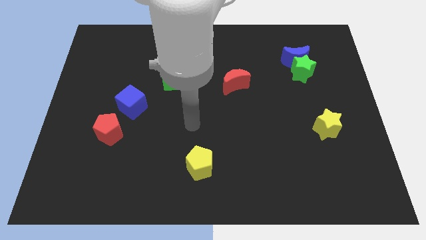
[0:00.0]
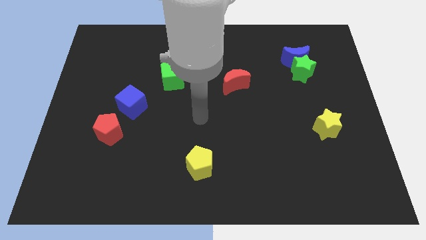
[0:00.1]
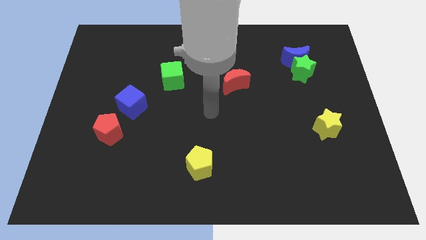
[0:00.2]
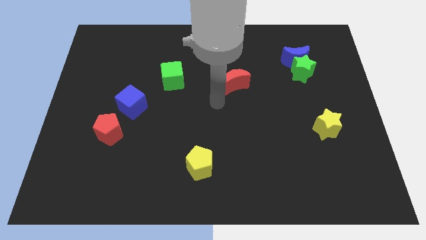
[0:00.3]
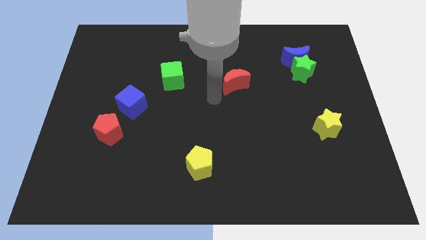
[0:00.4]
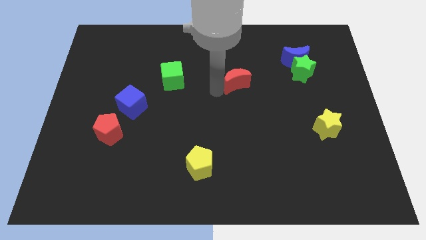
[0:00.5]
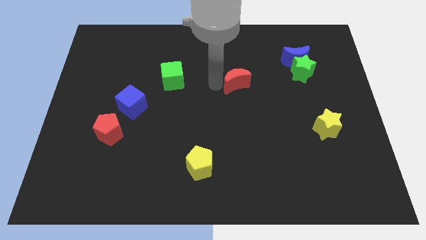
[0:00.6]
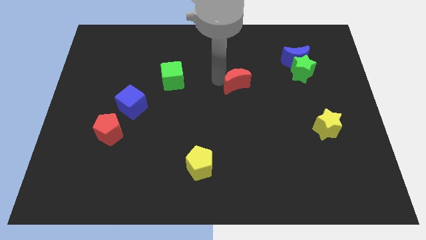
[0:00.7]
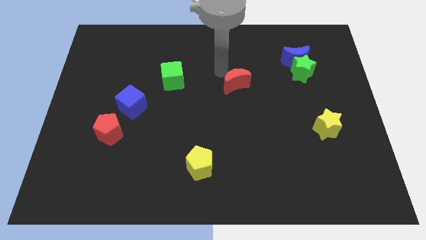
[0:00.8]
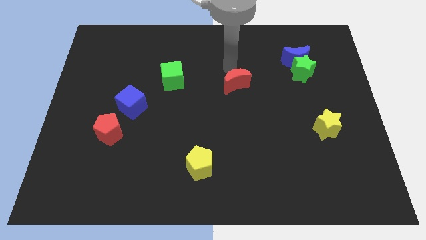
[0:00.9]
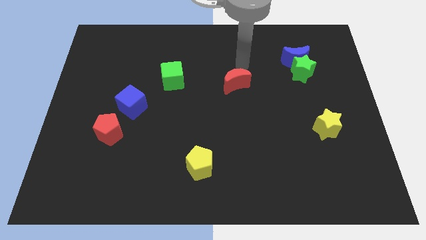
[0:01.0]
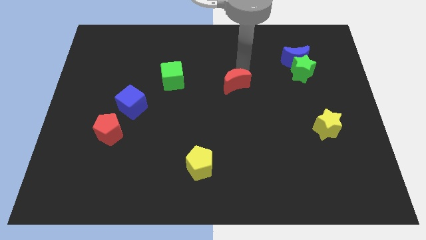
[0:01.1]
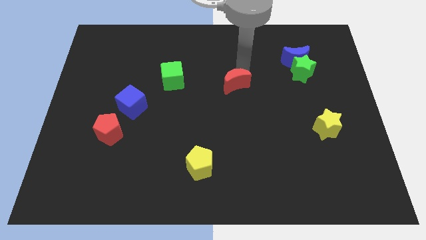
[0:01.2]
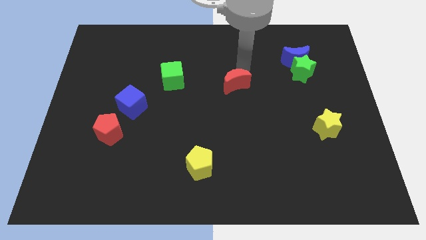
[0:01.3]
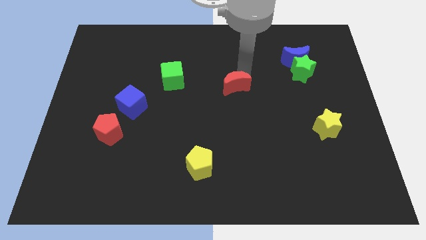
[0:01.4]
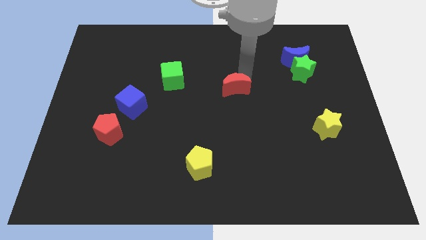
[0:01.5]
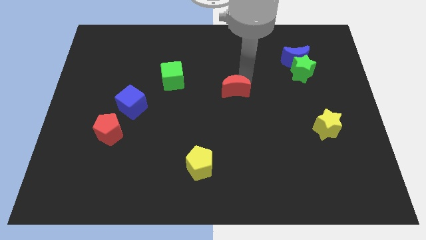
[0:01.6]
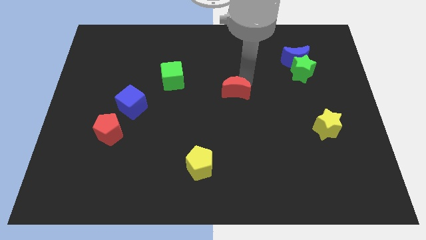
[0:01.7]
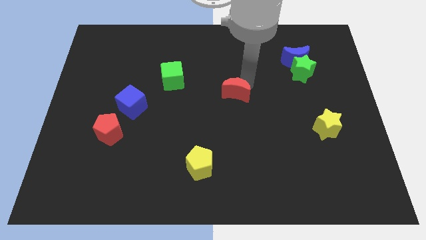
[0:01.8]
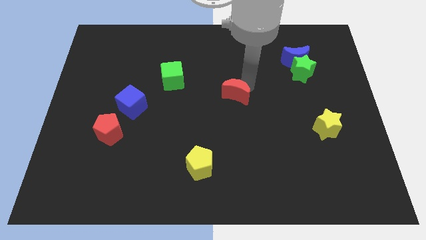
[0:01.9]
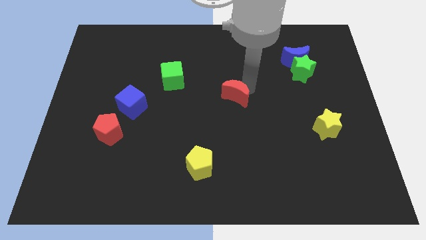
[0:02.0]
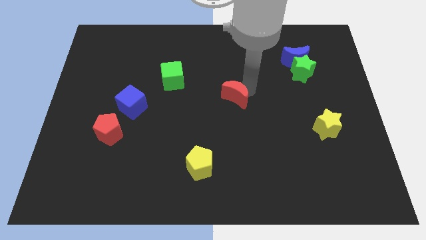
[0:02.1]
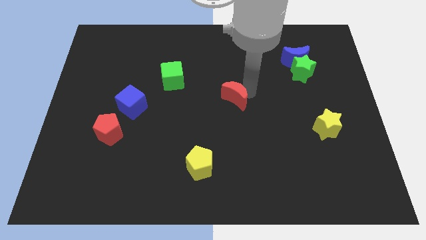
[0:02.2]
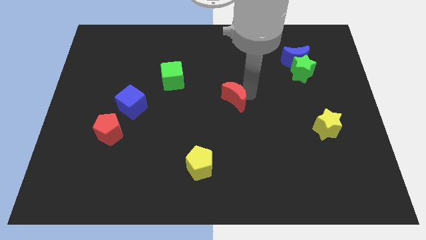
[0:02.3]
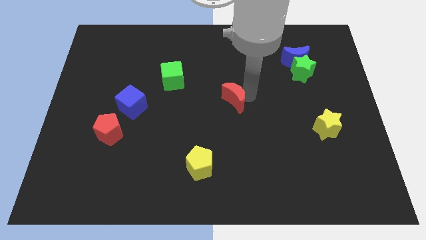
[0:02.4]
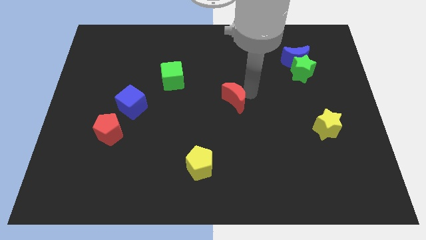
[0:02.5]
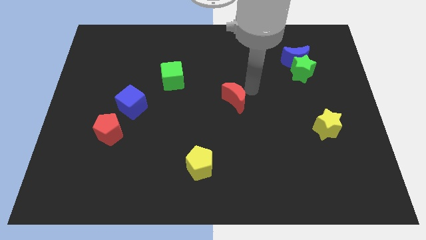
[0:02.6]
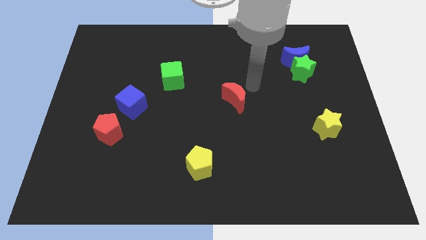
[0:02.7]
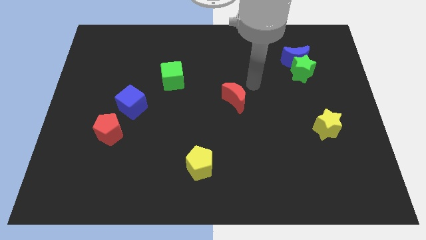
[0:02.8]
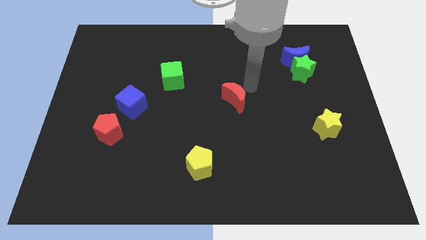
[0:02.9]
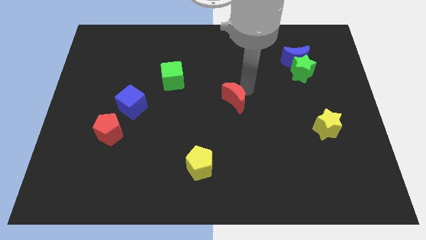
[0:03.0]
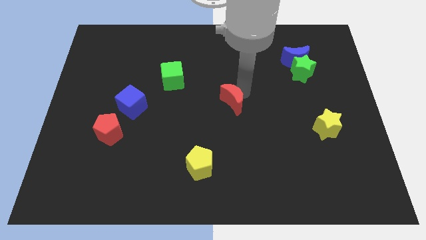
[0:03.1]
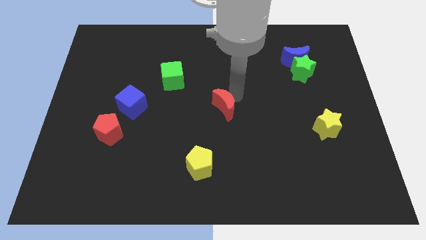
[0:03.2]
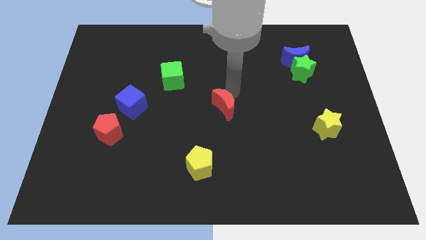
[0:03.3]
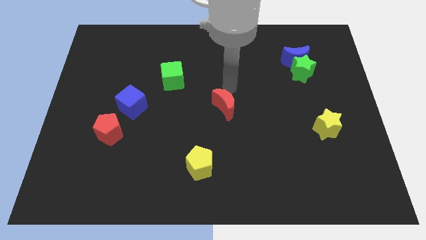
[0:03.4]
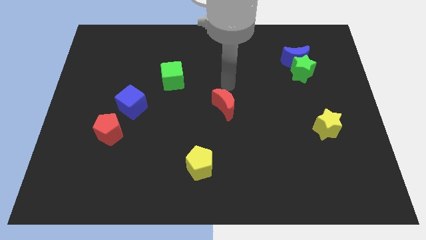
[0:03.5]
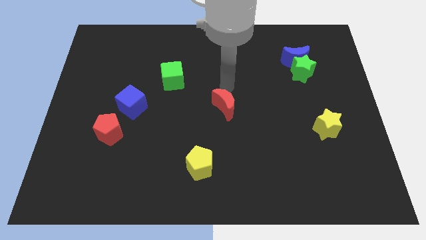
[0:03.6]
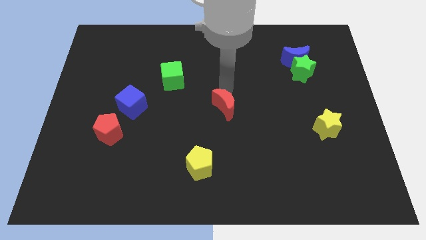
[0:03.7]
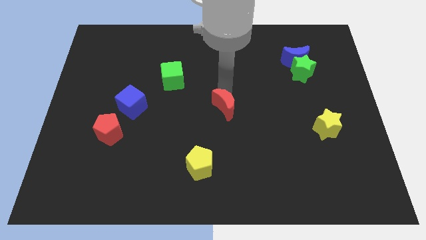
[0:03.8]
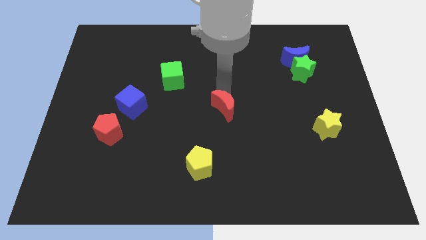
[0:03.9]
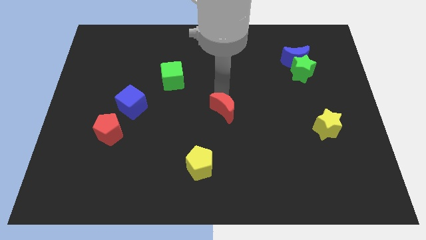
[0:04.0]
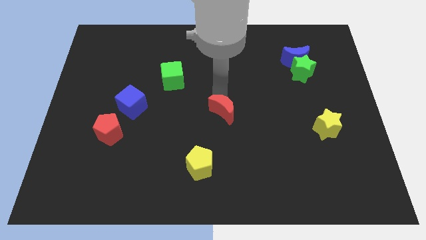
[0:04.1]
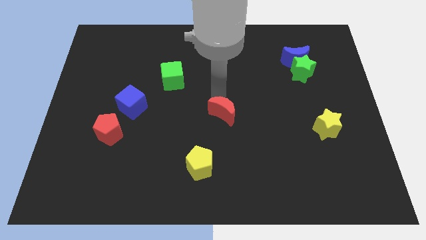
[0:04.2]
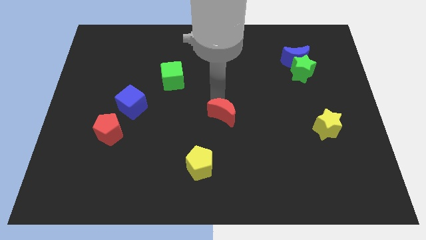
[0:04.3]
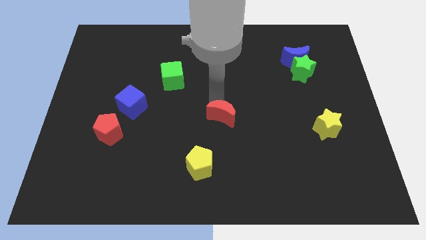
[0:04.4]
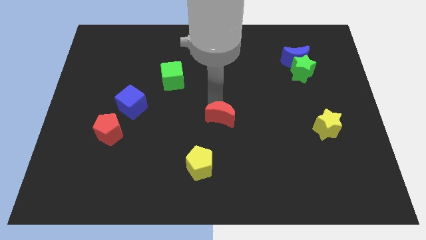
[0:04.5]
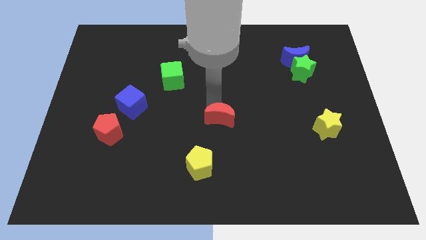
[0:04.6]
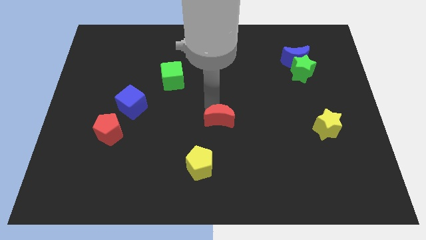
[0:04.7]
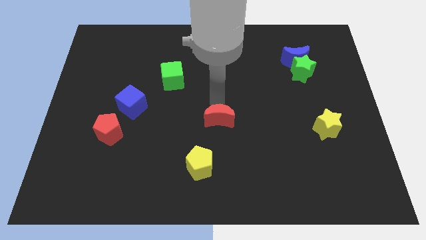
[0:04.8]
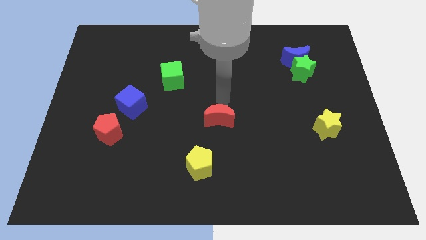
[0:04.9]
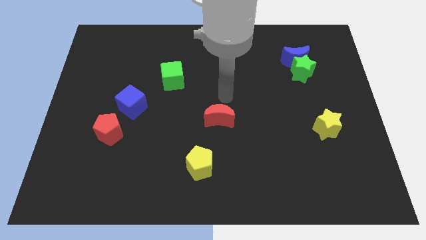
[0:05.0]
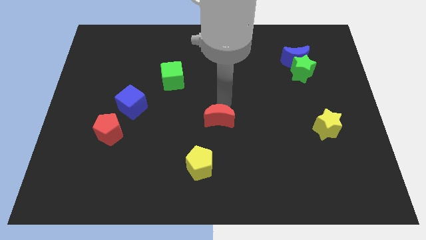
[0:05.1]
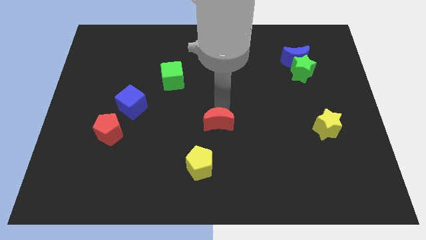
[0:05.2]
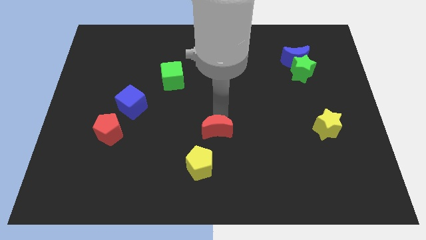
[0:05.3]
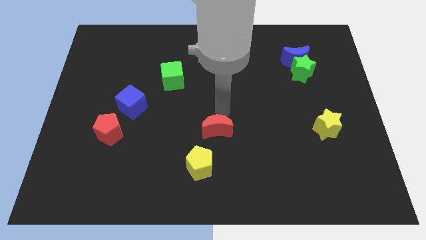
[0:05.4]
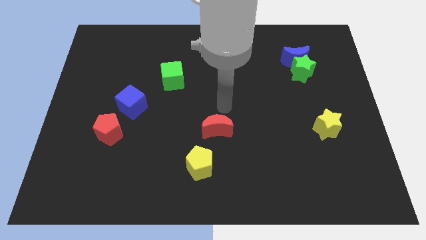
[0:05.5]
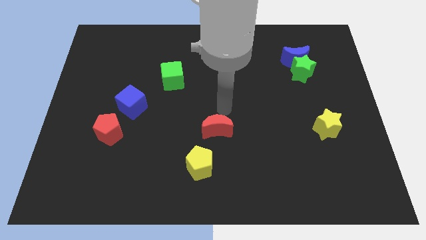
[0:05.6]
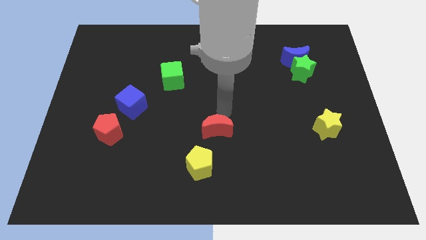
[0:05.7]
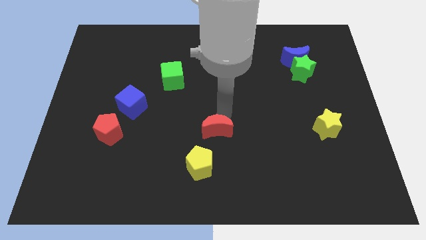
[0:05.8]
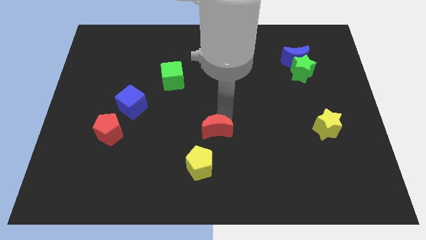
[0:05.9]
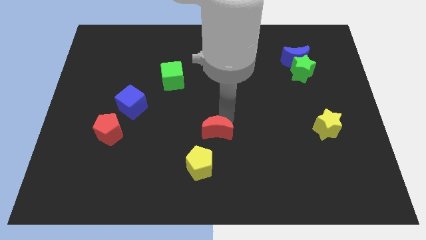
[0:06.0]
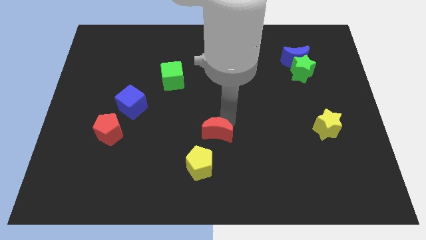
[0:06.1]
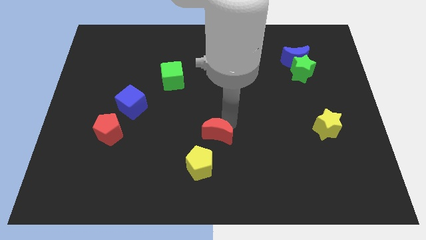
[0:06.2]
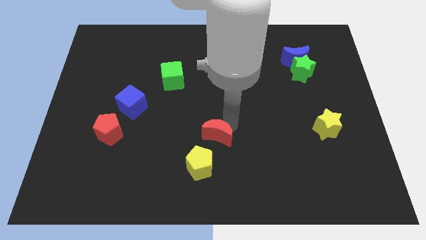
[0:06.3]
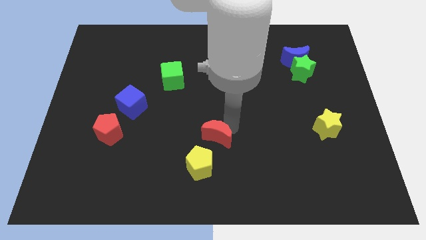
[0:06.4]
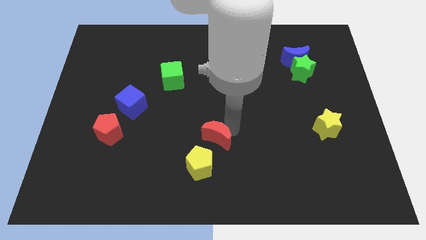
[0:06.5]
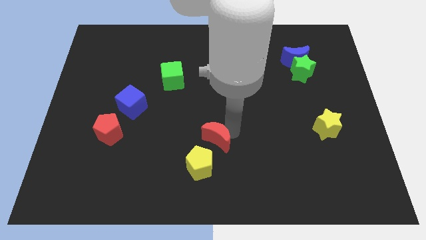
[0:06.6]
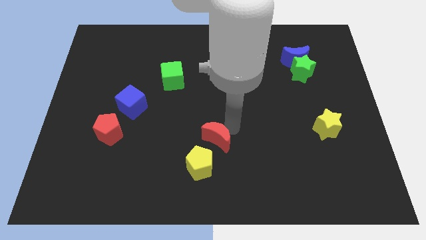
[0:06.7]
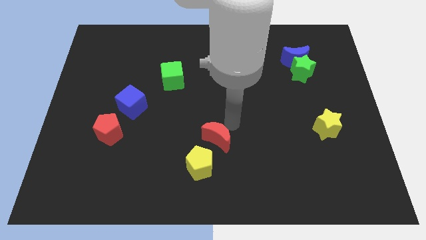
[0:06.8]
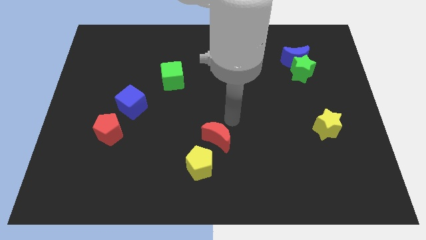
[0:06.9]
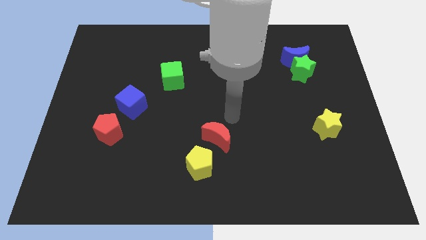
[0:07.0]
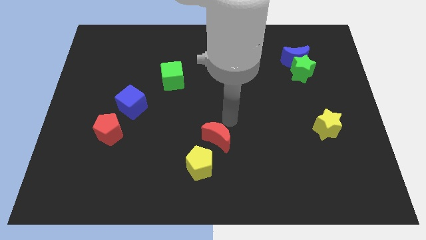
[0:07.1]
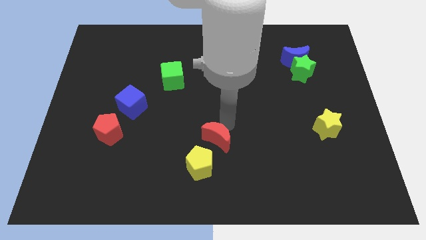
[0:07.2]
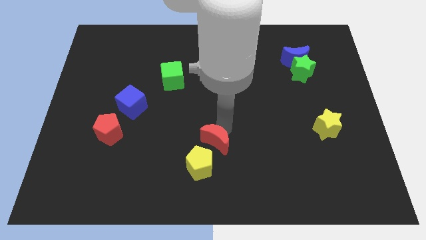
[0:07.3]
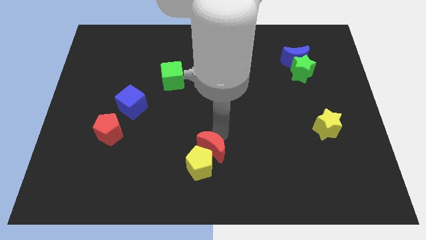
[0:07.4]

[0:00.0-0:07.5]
put the red moon next to the yellow pentagon
